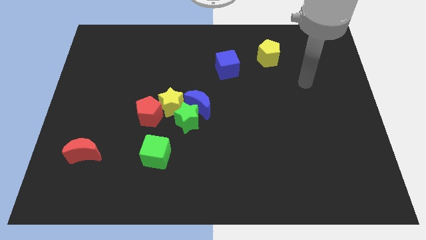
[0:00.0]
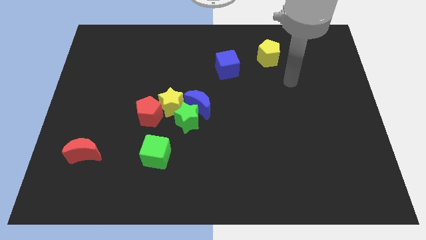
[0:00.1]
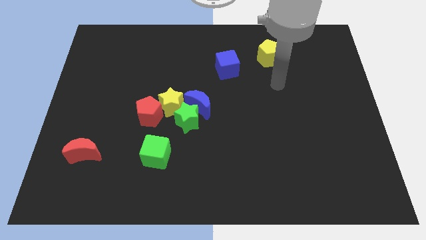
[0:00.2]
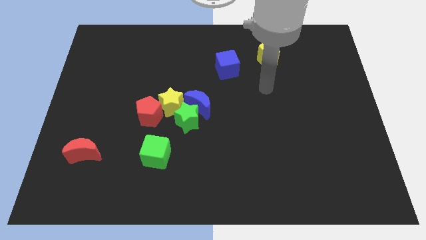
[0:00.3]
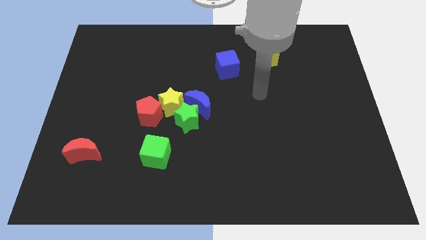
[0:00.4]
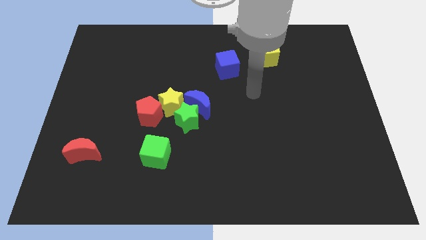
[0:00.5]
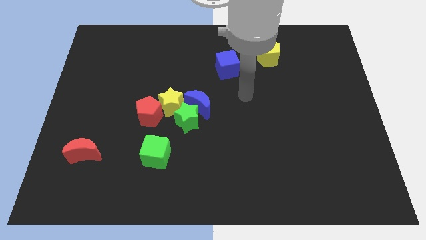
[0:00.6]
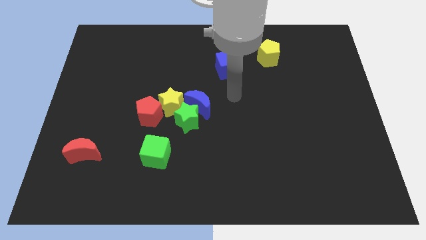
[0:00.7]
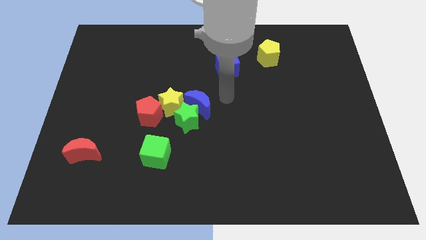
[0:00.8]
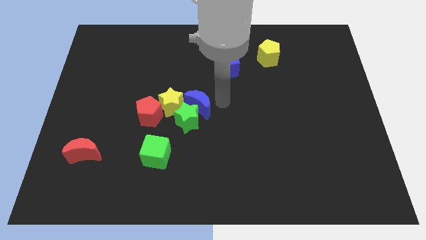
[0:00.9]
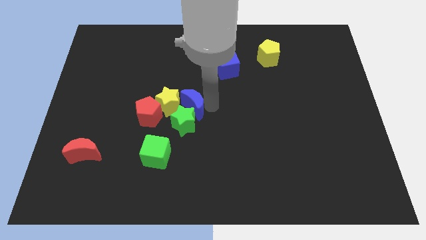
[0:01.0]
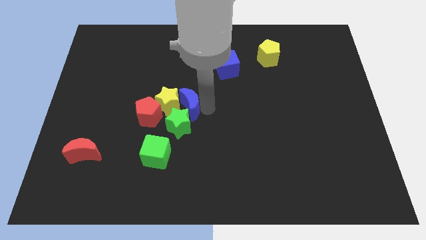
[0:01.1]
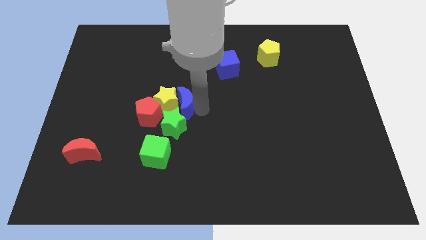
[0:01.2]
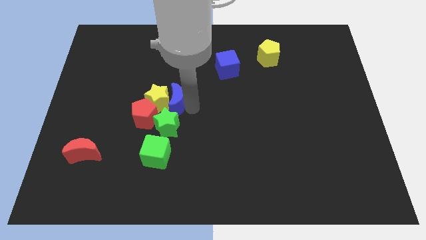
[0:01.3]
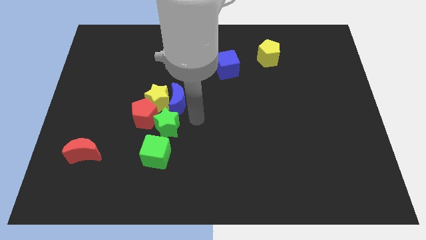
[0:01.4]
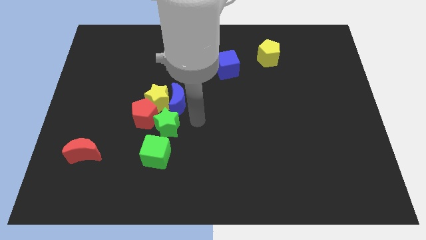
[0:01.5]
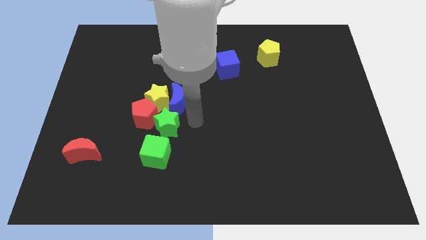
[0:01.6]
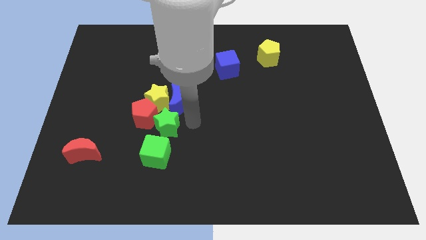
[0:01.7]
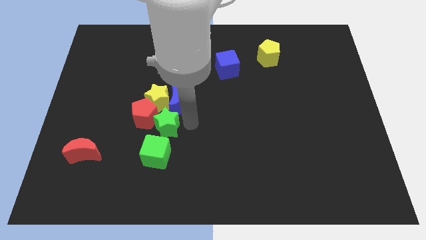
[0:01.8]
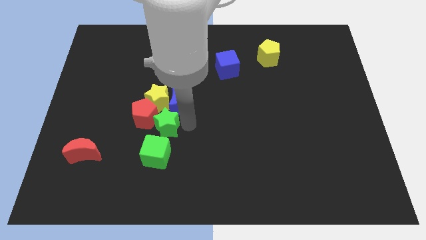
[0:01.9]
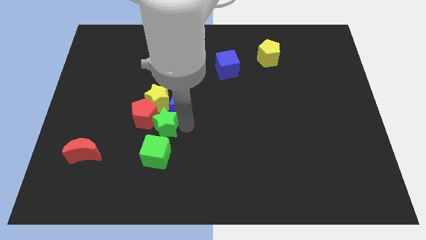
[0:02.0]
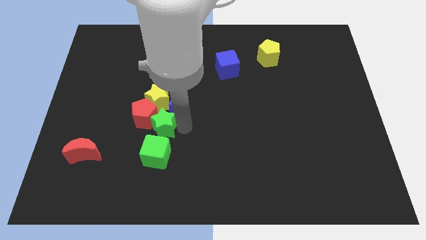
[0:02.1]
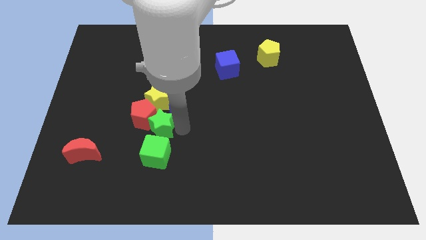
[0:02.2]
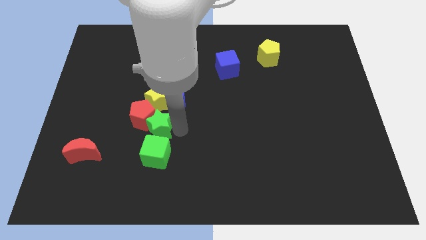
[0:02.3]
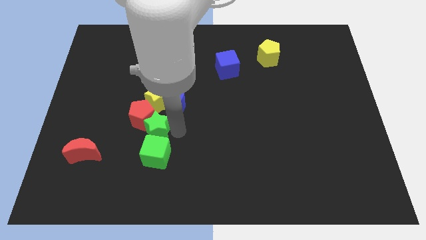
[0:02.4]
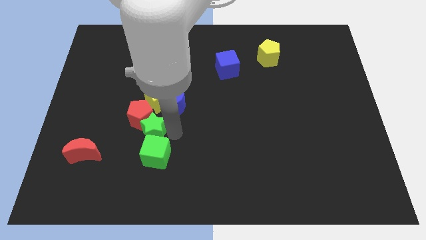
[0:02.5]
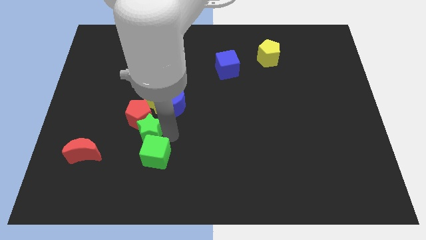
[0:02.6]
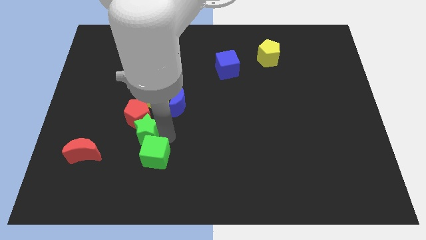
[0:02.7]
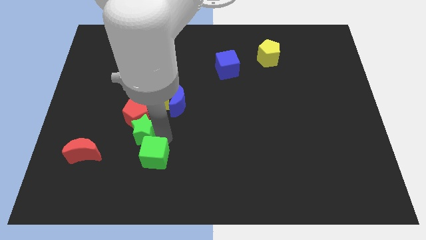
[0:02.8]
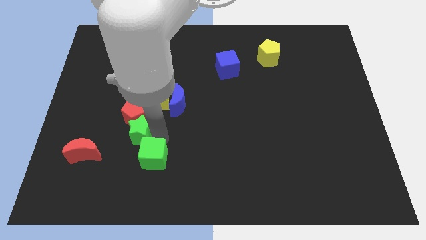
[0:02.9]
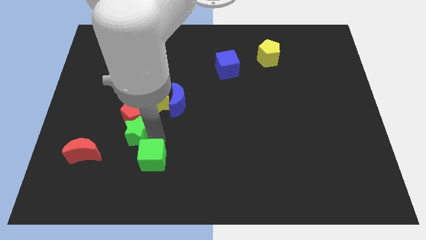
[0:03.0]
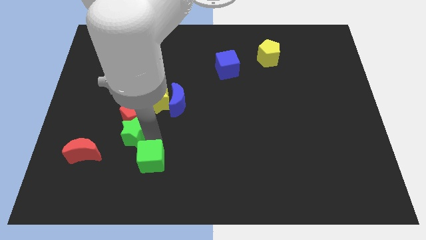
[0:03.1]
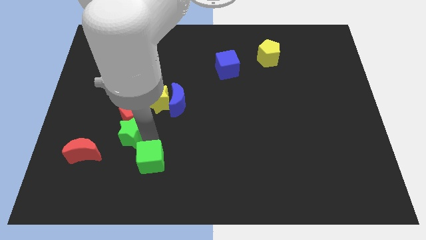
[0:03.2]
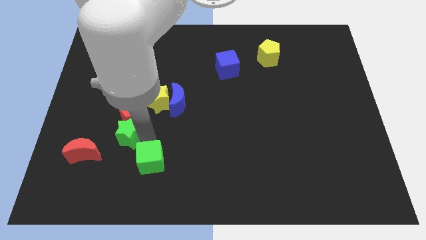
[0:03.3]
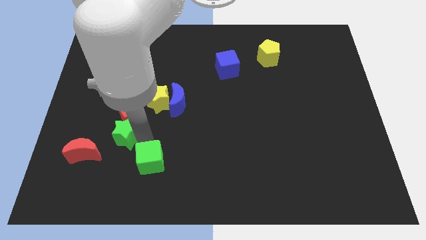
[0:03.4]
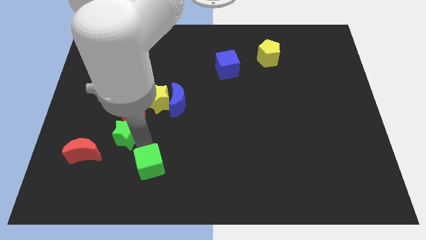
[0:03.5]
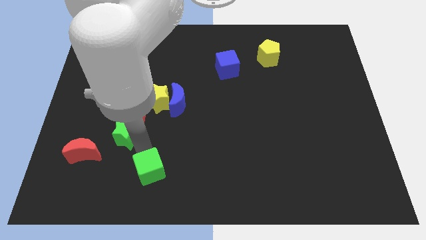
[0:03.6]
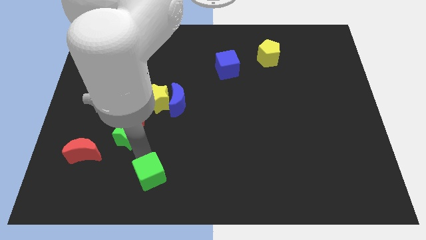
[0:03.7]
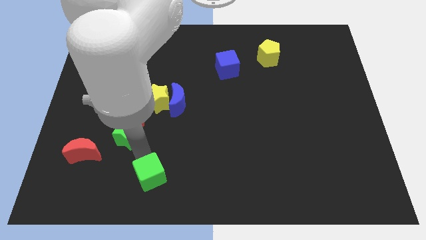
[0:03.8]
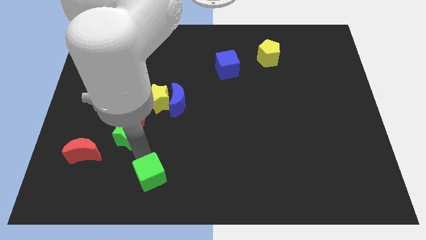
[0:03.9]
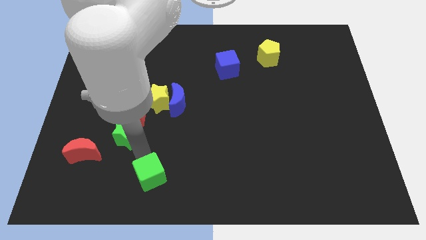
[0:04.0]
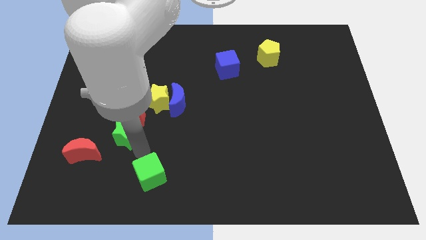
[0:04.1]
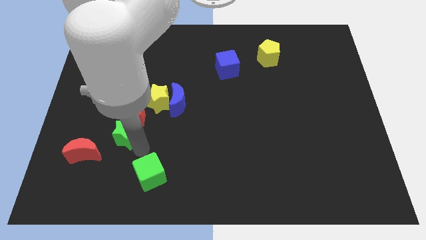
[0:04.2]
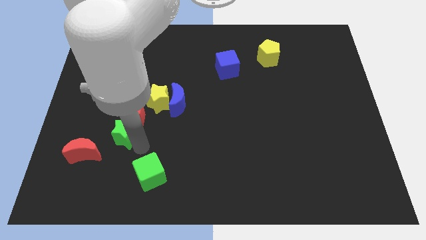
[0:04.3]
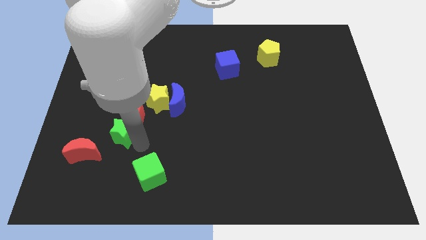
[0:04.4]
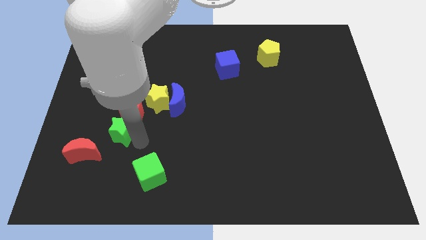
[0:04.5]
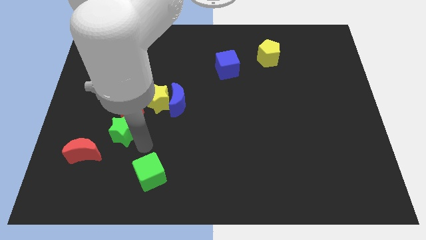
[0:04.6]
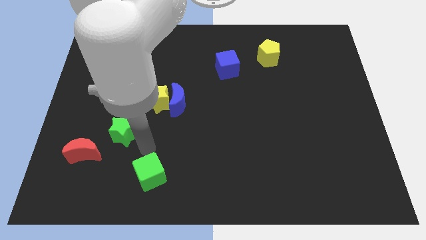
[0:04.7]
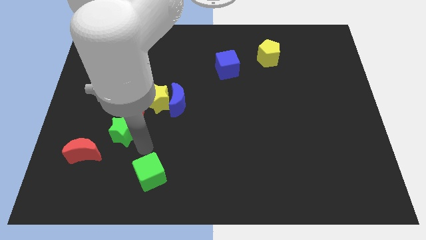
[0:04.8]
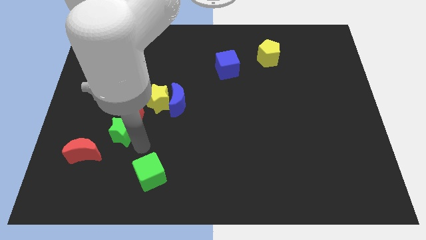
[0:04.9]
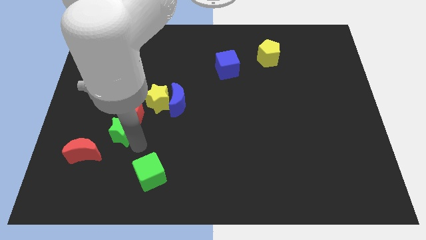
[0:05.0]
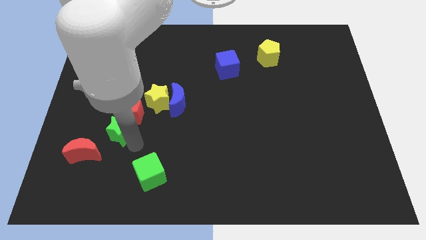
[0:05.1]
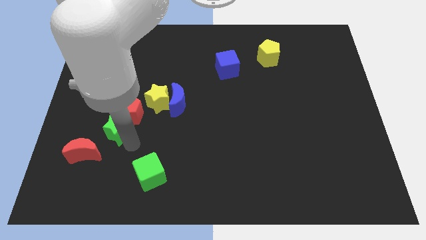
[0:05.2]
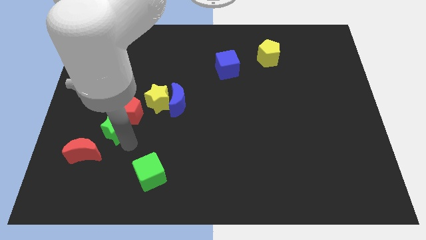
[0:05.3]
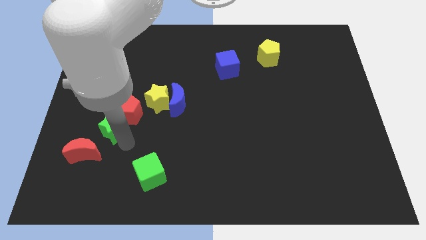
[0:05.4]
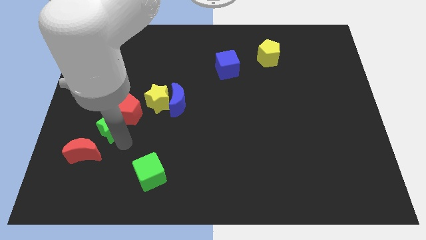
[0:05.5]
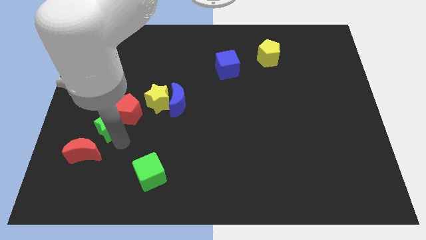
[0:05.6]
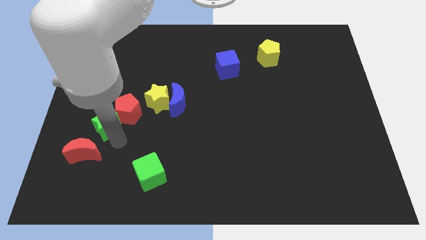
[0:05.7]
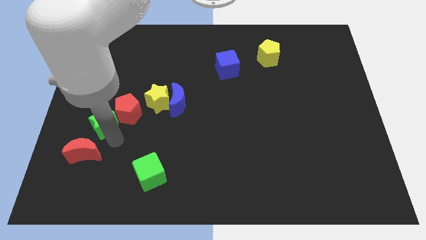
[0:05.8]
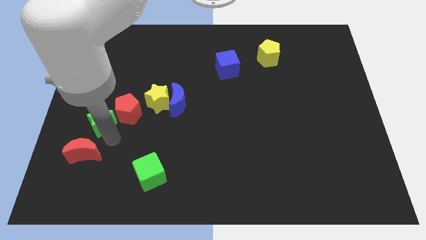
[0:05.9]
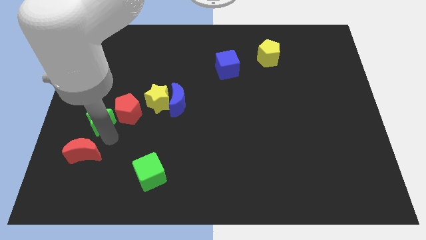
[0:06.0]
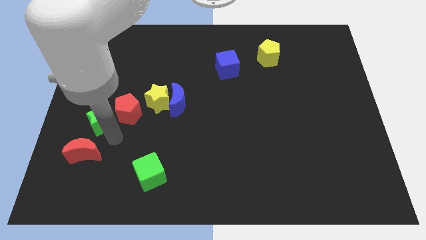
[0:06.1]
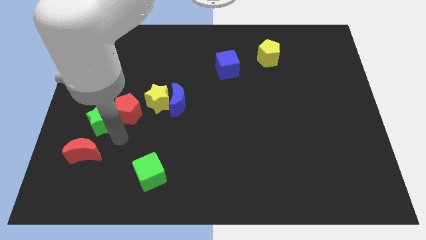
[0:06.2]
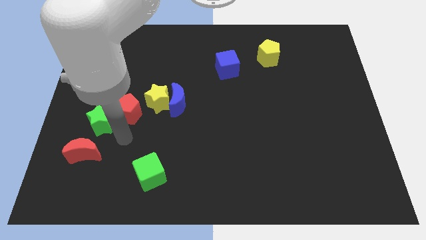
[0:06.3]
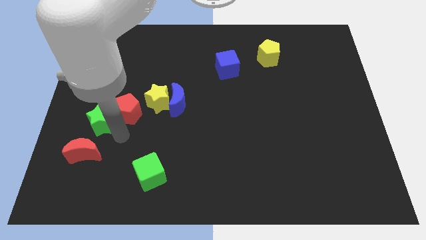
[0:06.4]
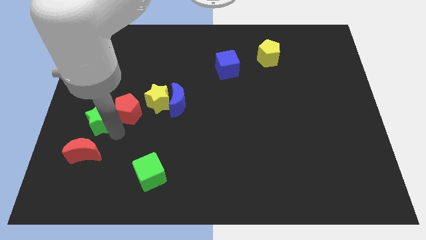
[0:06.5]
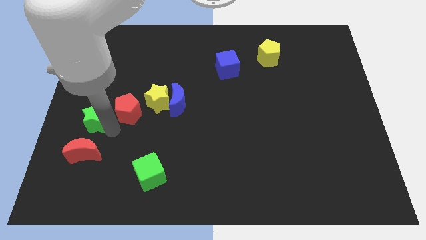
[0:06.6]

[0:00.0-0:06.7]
move the green star to the left side of the board
